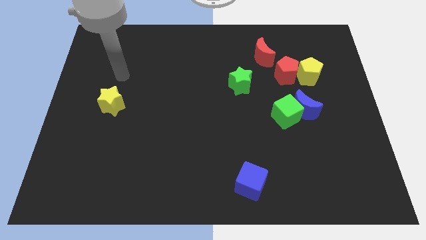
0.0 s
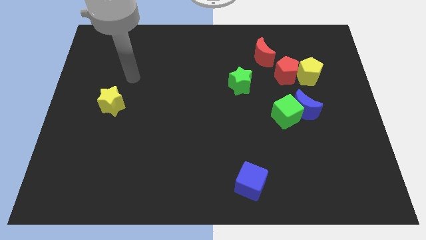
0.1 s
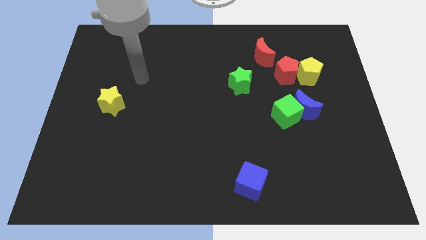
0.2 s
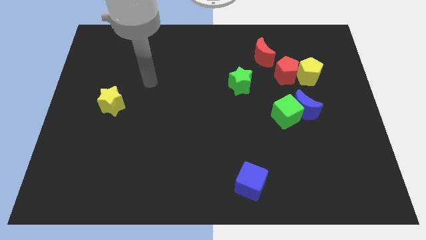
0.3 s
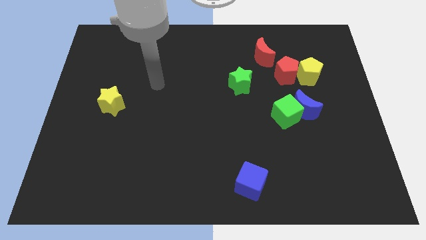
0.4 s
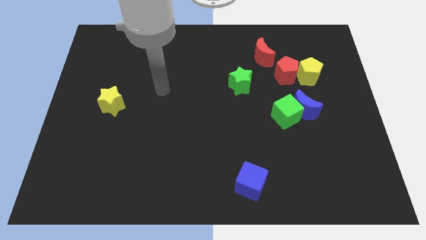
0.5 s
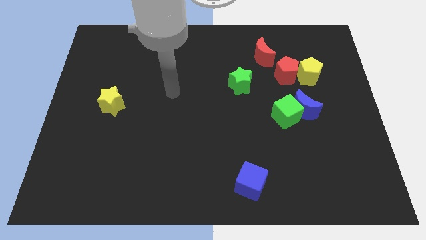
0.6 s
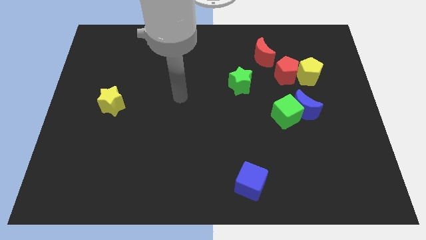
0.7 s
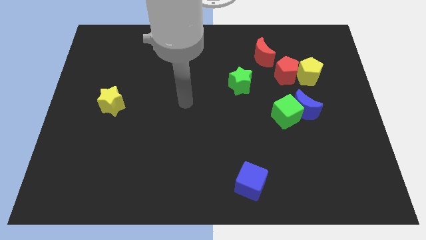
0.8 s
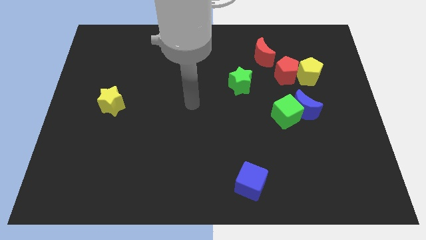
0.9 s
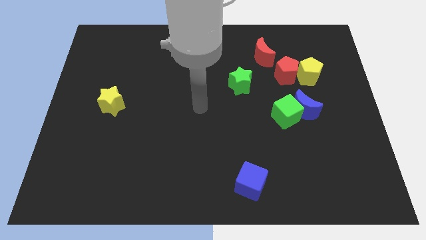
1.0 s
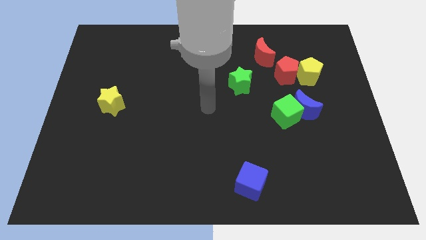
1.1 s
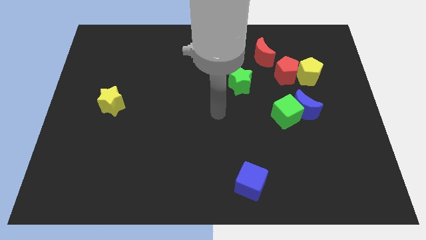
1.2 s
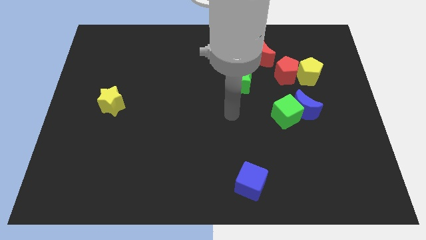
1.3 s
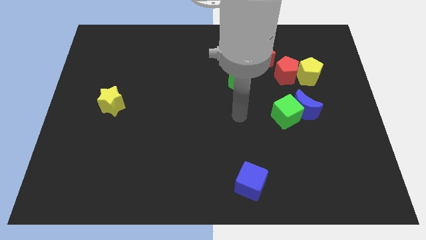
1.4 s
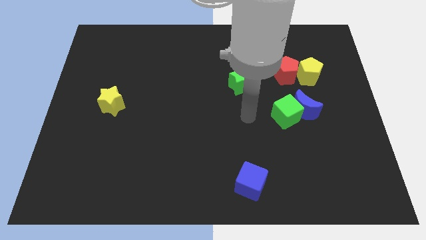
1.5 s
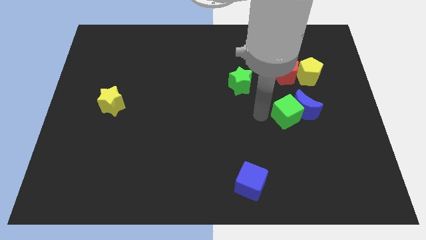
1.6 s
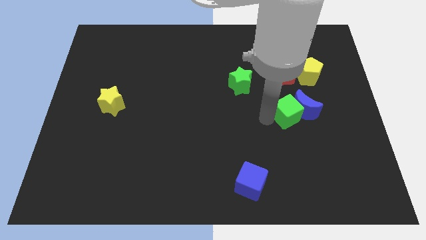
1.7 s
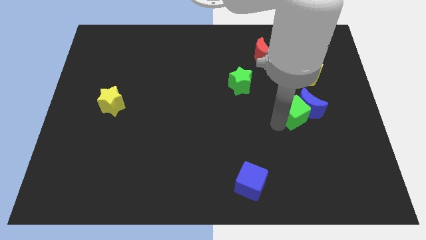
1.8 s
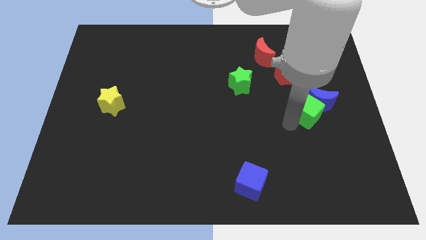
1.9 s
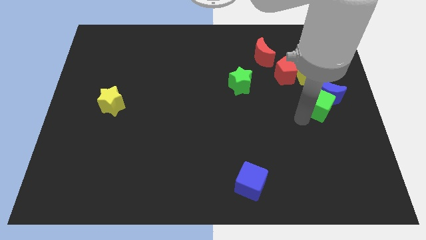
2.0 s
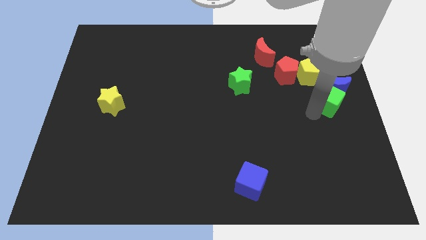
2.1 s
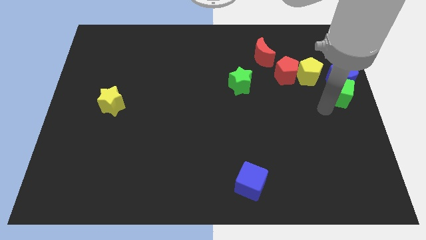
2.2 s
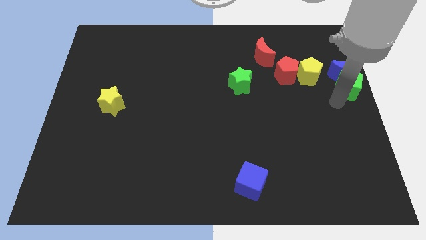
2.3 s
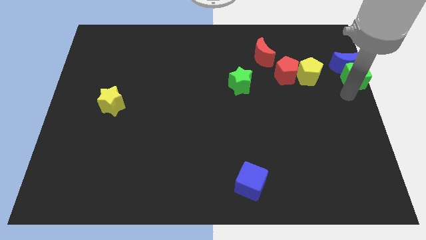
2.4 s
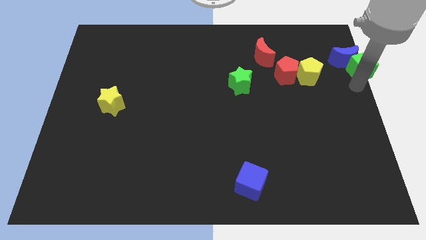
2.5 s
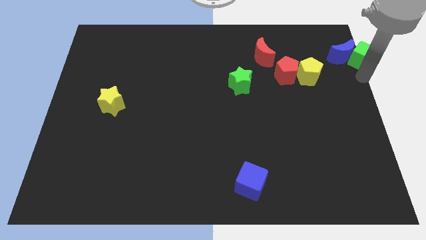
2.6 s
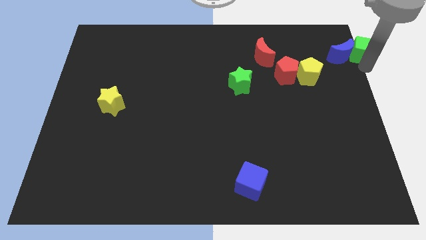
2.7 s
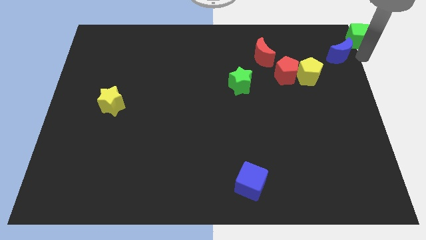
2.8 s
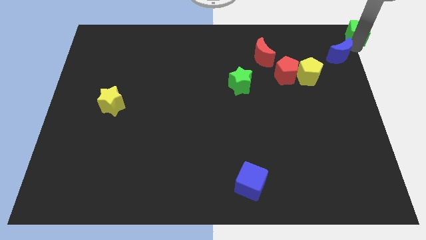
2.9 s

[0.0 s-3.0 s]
separate the blue moon from the green cube

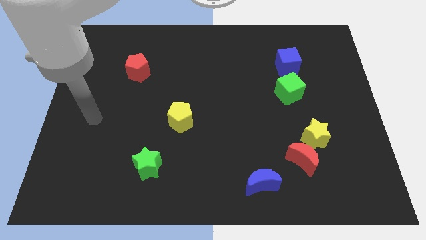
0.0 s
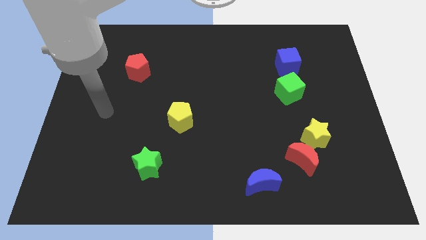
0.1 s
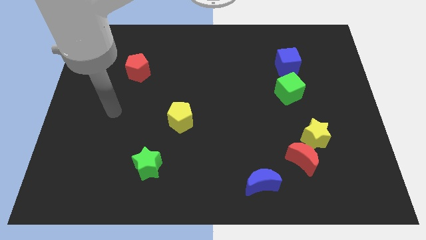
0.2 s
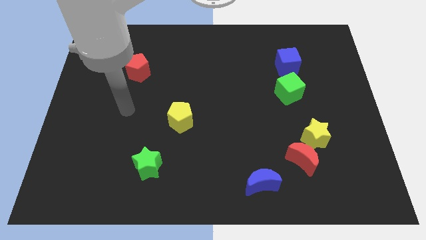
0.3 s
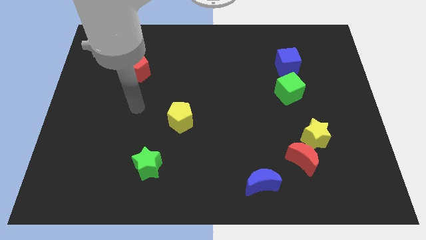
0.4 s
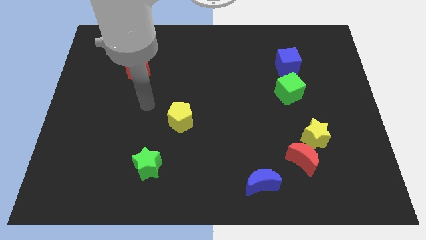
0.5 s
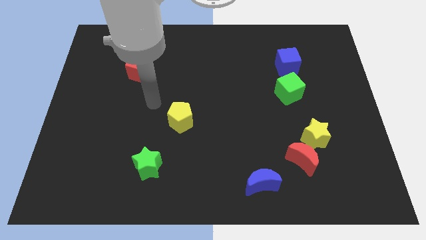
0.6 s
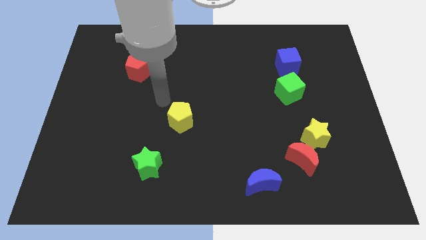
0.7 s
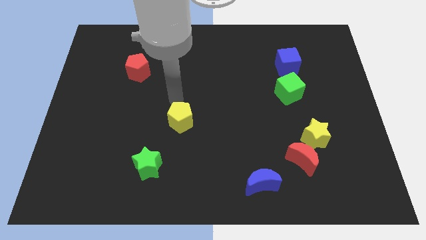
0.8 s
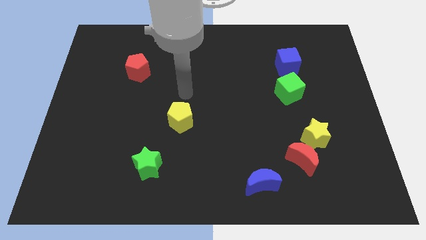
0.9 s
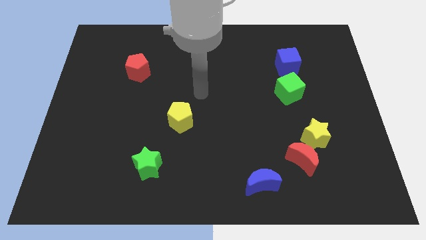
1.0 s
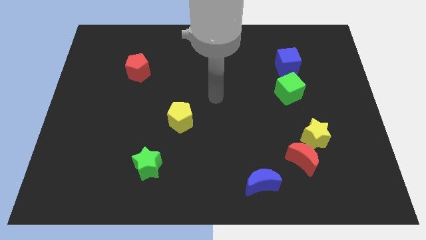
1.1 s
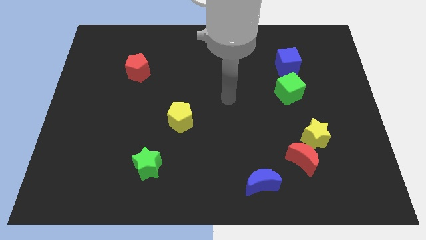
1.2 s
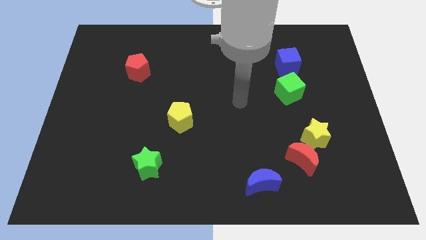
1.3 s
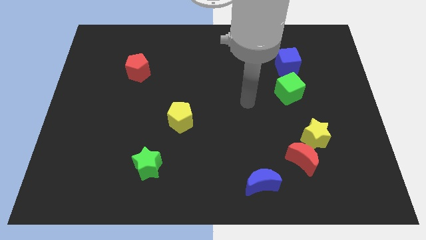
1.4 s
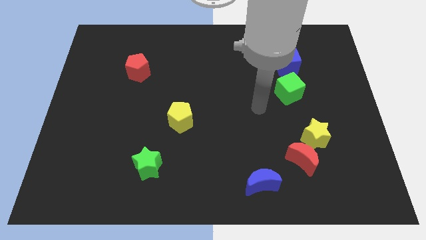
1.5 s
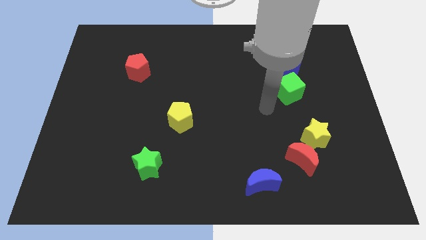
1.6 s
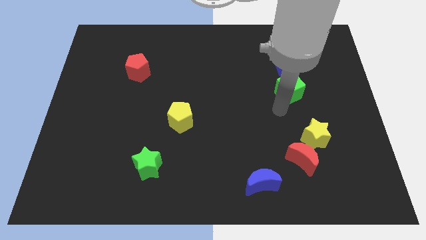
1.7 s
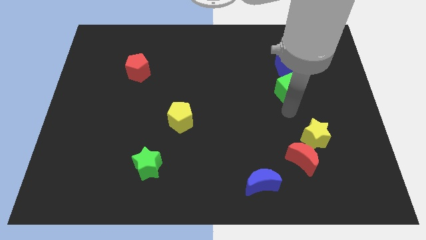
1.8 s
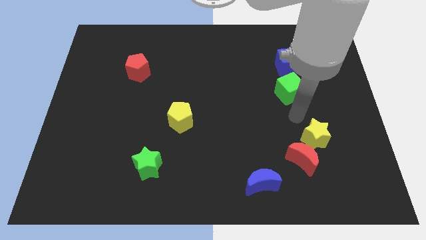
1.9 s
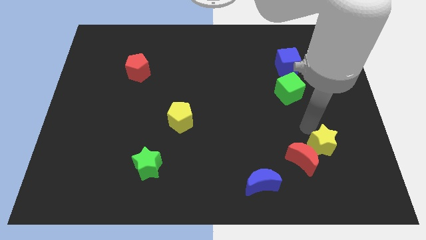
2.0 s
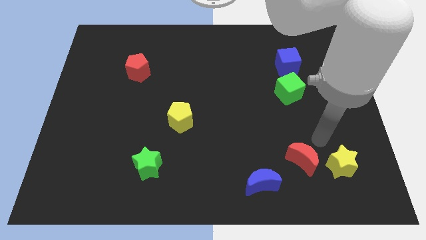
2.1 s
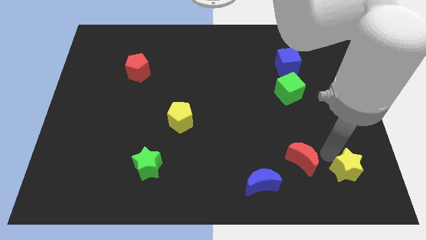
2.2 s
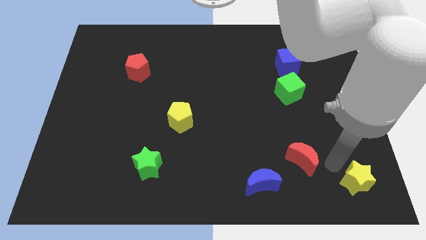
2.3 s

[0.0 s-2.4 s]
separate the red moon from the yellow star

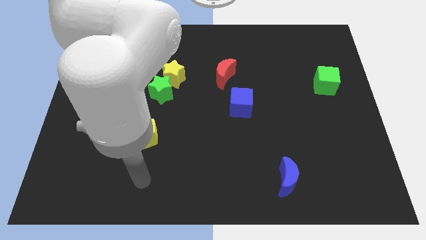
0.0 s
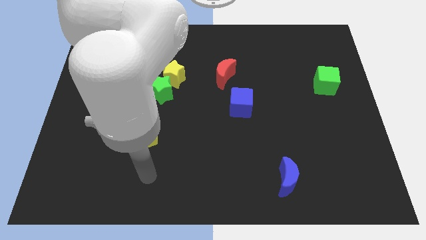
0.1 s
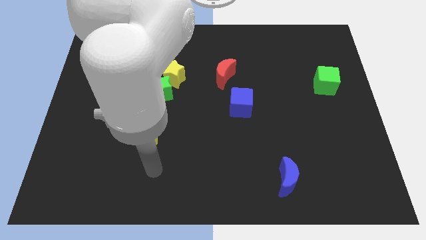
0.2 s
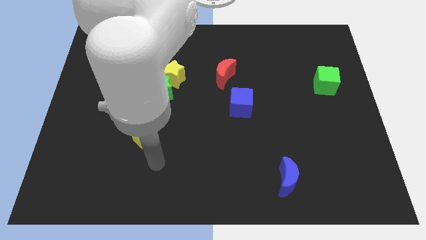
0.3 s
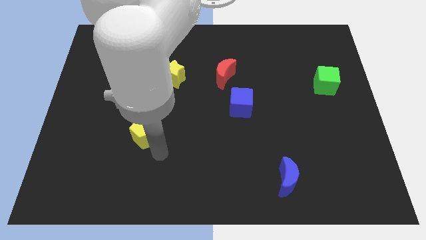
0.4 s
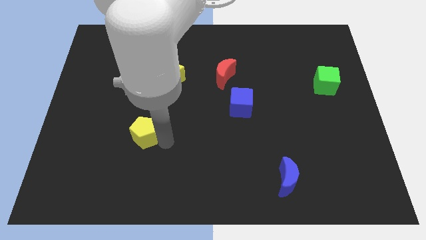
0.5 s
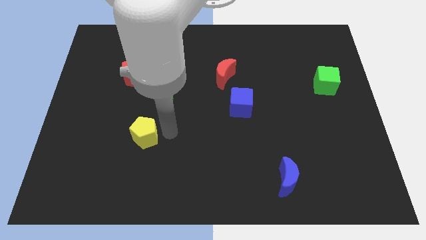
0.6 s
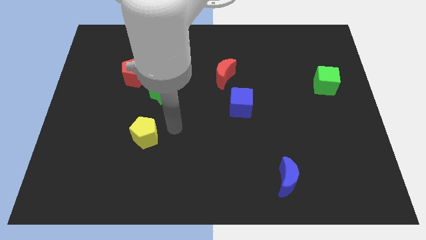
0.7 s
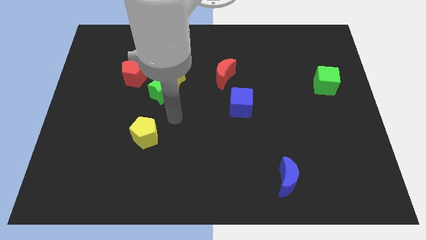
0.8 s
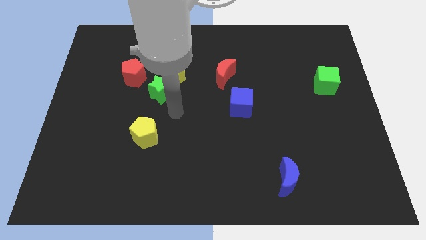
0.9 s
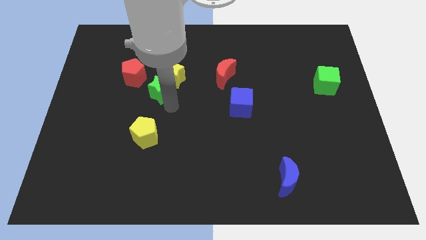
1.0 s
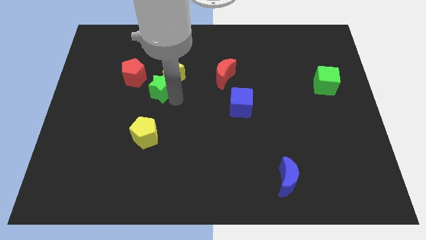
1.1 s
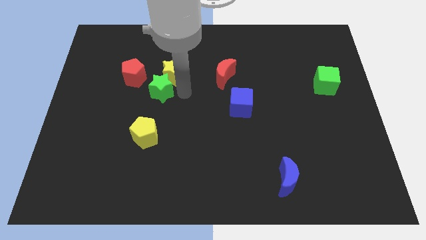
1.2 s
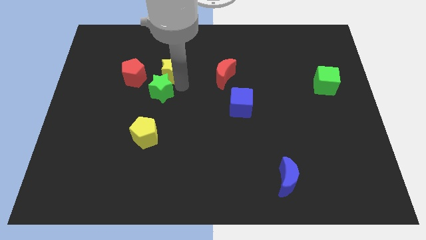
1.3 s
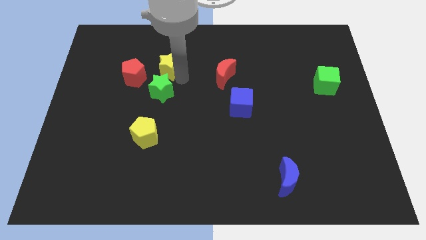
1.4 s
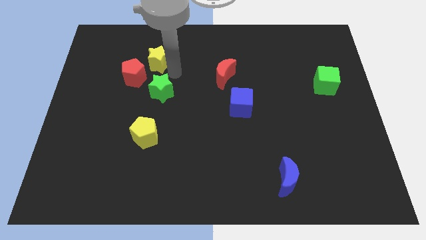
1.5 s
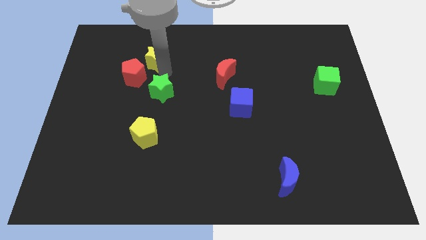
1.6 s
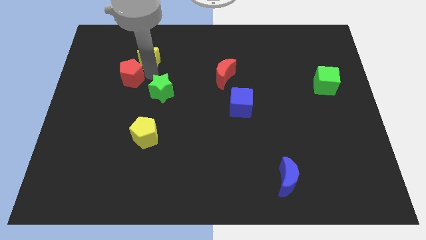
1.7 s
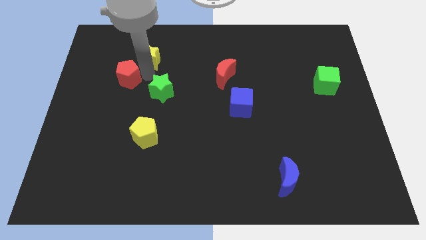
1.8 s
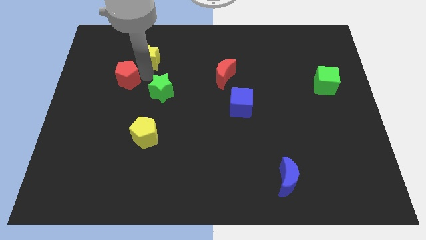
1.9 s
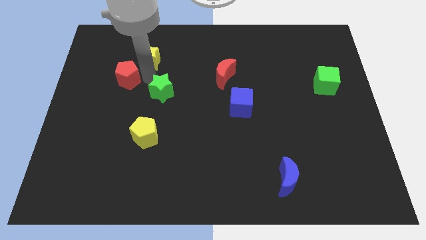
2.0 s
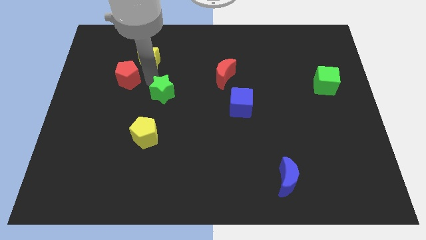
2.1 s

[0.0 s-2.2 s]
pull the green star apart from the yellow star and red pentagon

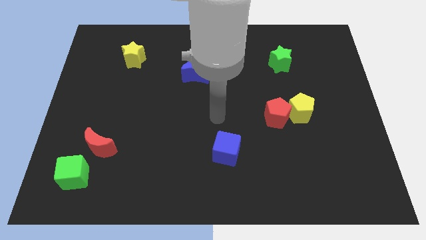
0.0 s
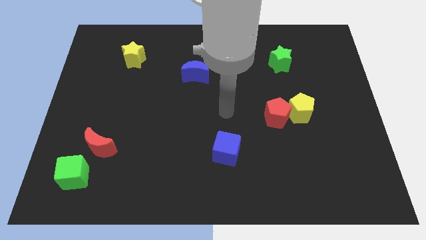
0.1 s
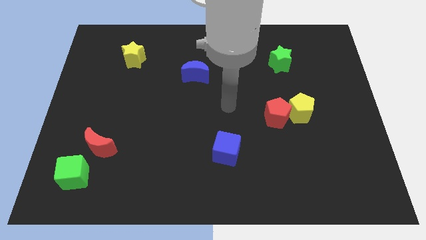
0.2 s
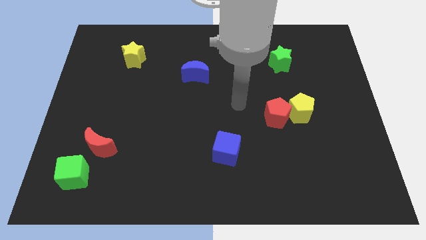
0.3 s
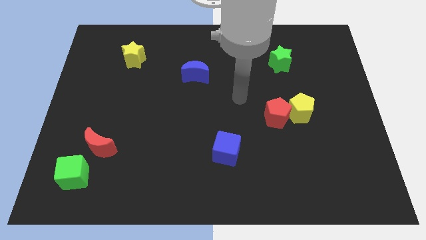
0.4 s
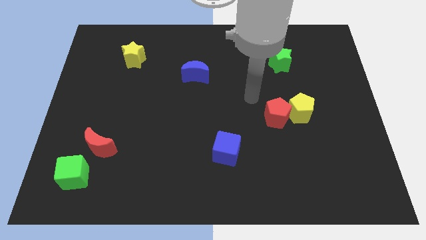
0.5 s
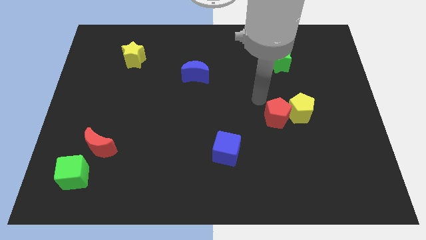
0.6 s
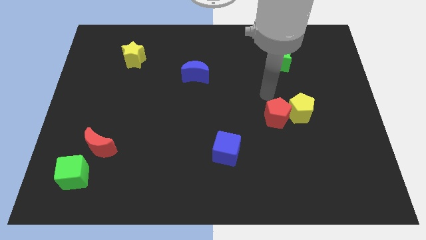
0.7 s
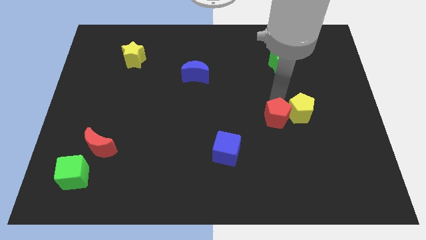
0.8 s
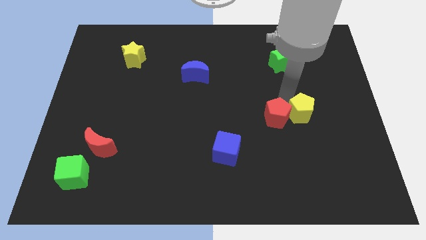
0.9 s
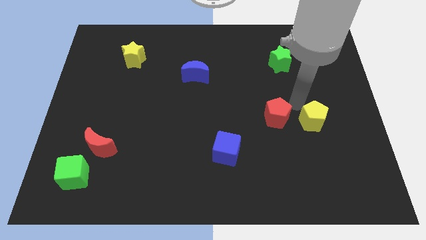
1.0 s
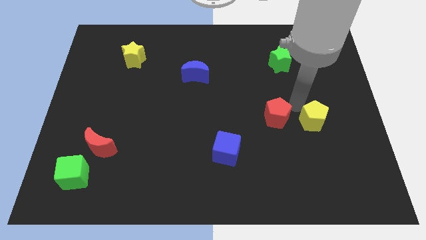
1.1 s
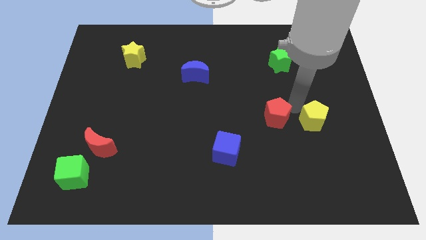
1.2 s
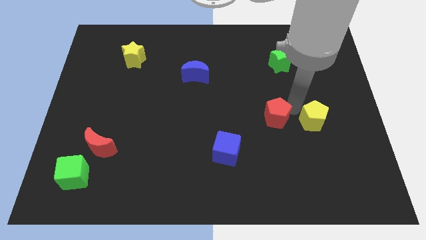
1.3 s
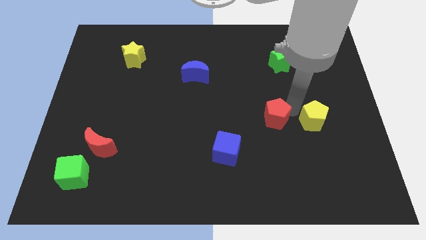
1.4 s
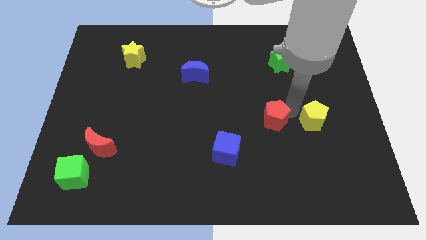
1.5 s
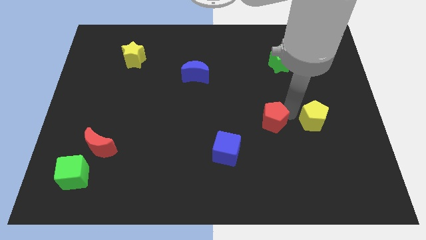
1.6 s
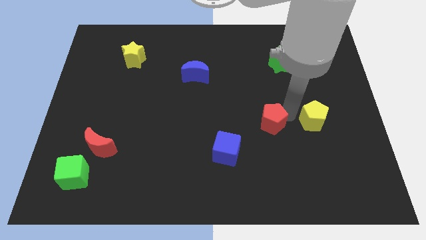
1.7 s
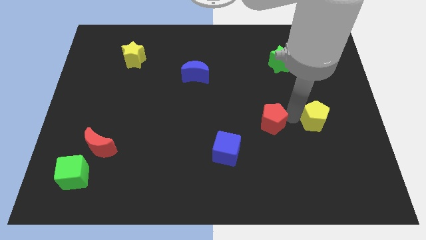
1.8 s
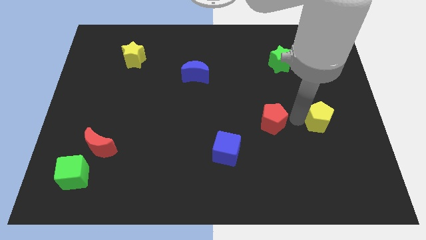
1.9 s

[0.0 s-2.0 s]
move the red pentagon away from the yellow pentagon

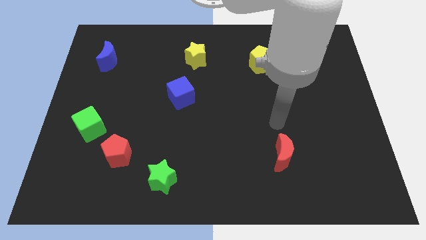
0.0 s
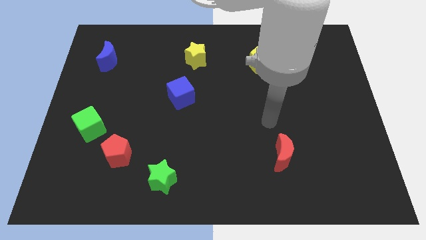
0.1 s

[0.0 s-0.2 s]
pull the red pentagon apart from the green cube
